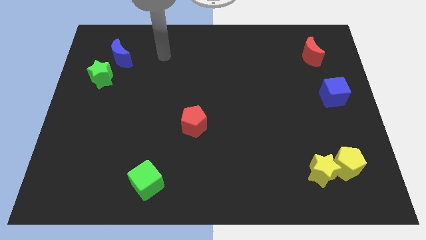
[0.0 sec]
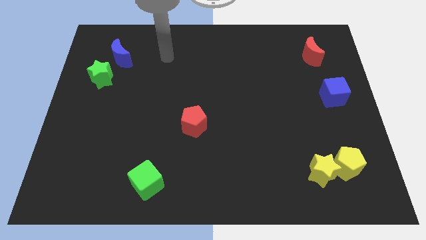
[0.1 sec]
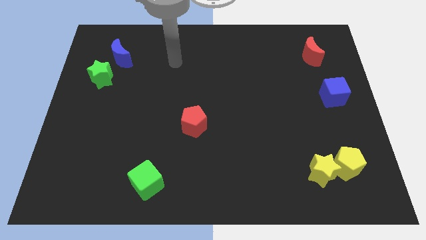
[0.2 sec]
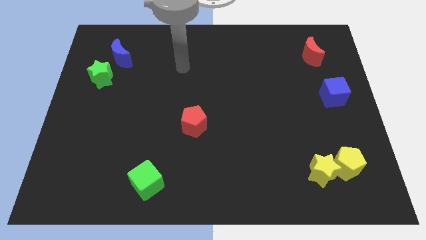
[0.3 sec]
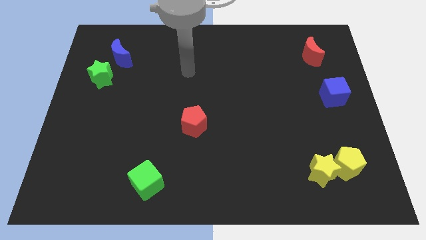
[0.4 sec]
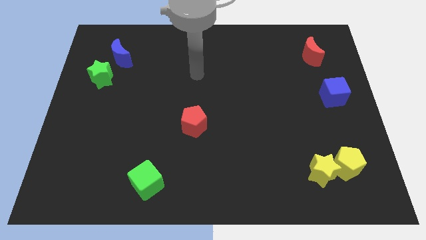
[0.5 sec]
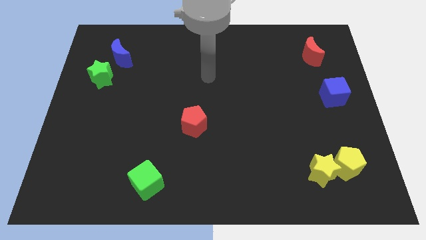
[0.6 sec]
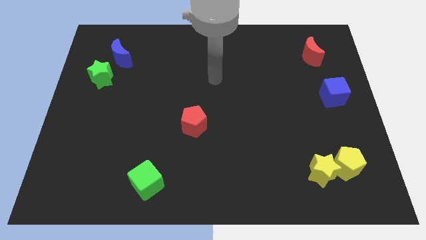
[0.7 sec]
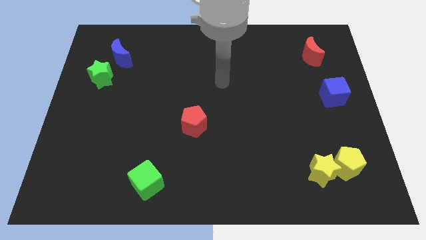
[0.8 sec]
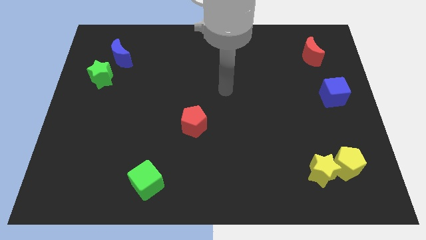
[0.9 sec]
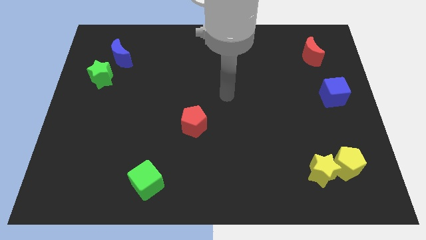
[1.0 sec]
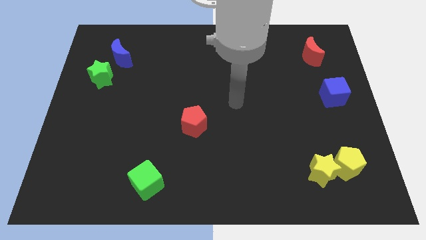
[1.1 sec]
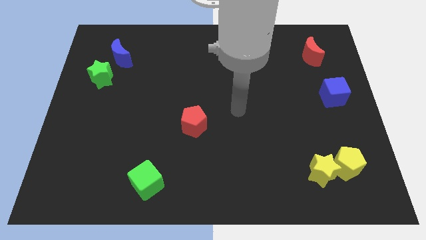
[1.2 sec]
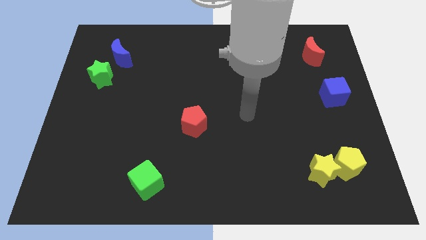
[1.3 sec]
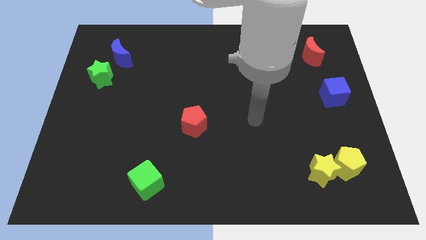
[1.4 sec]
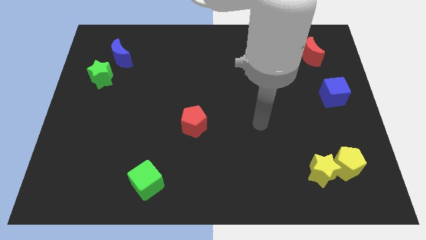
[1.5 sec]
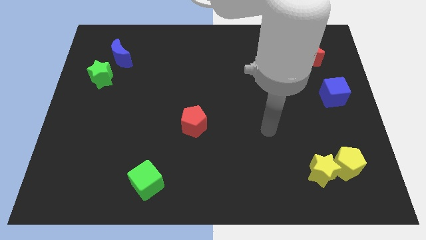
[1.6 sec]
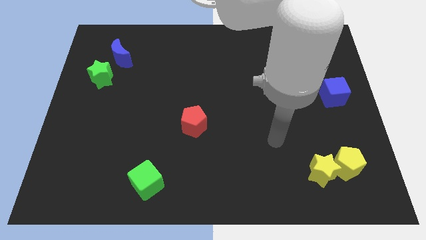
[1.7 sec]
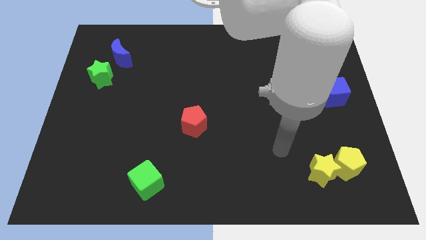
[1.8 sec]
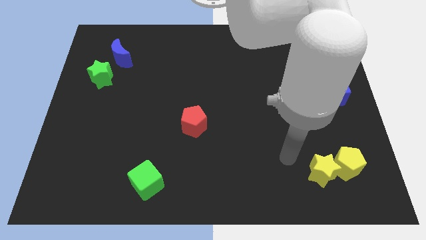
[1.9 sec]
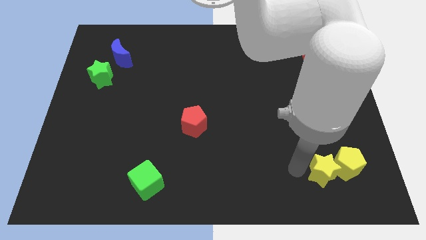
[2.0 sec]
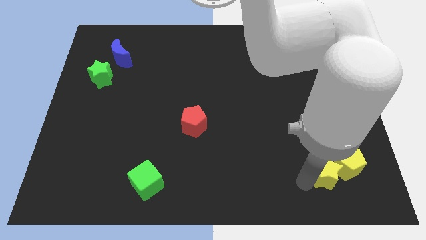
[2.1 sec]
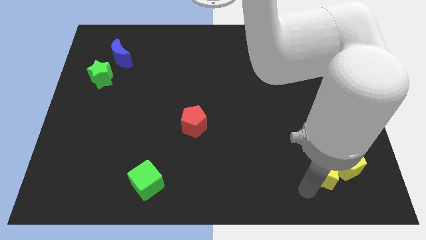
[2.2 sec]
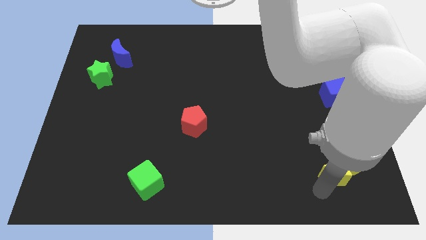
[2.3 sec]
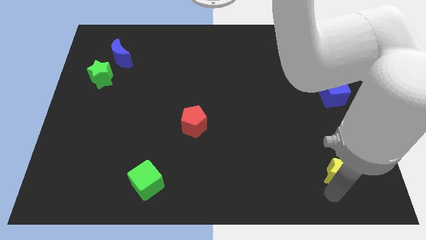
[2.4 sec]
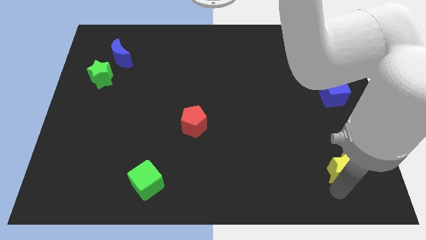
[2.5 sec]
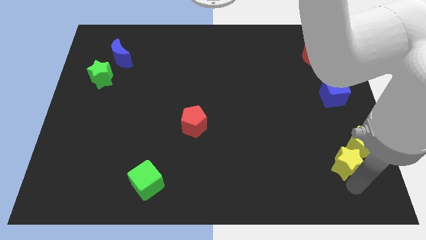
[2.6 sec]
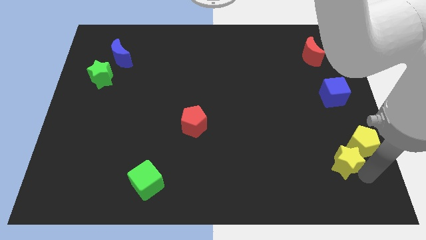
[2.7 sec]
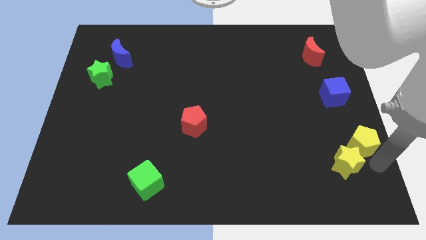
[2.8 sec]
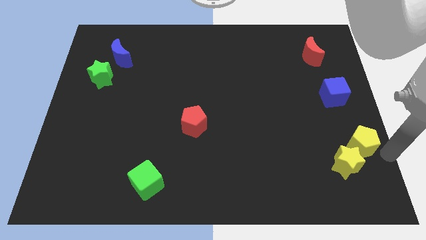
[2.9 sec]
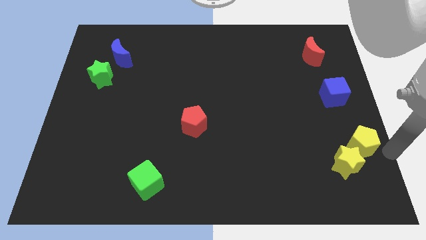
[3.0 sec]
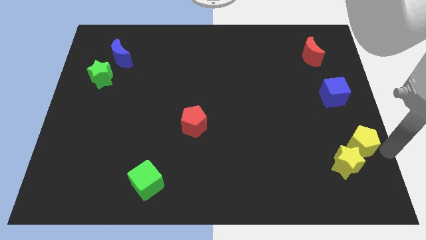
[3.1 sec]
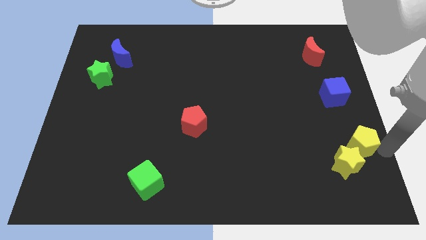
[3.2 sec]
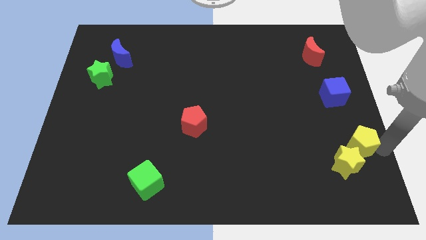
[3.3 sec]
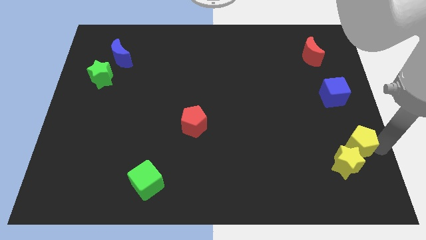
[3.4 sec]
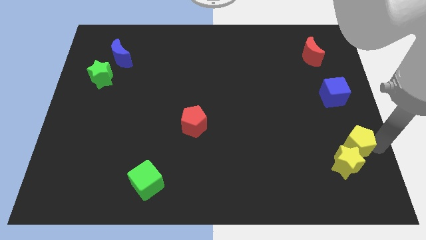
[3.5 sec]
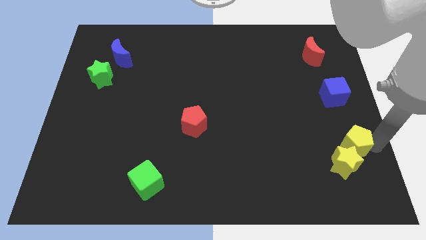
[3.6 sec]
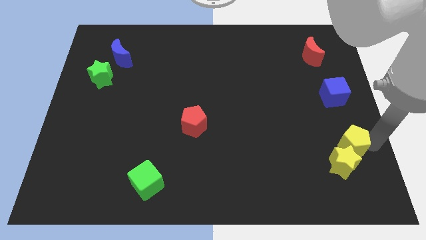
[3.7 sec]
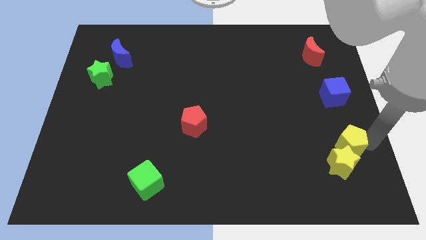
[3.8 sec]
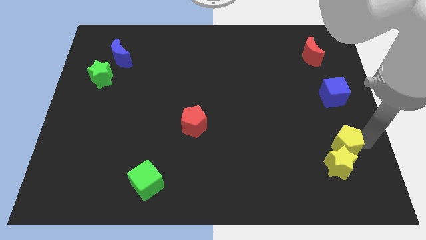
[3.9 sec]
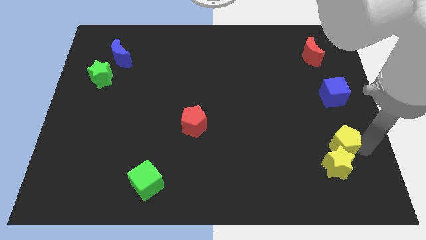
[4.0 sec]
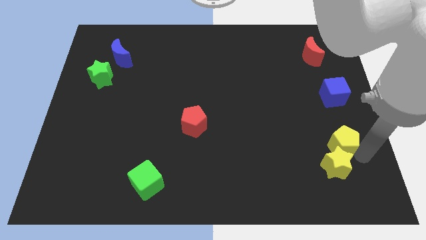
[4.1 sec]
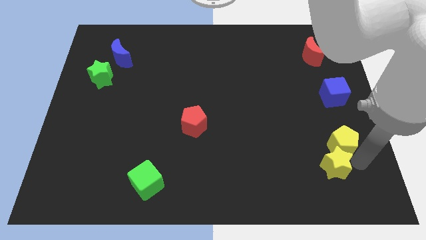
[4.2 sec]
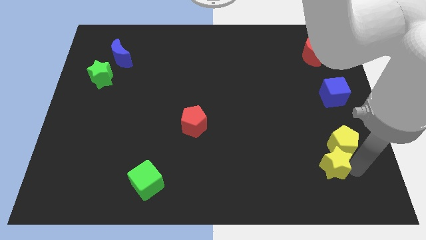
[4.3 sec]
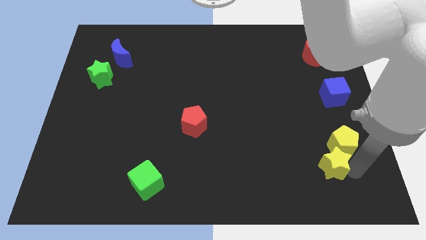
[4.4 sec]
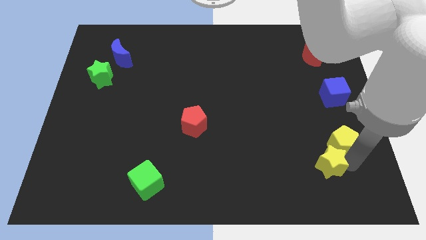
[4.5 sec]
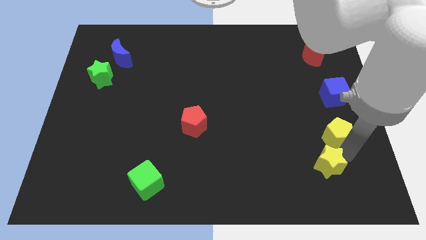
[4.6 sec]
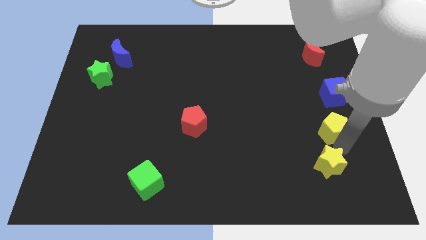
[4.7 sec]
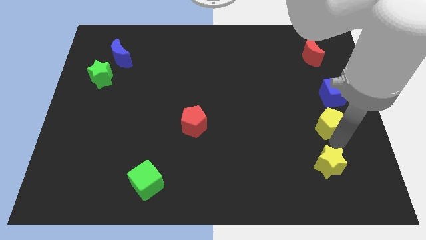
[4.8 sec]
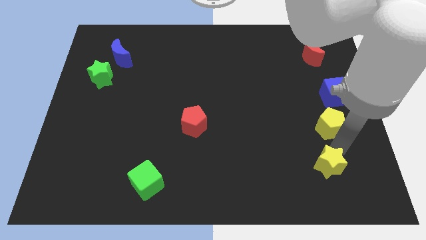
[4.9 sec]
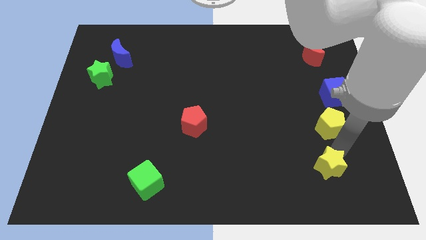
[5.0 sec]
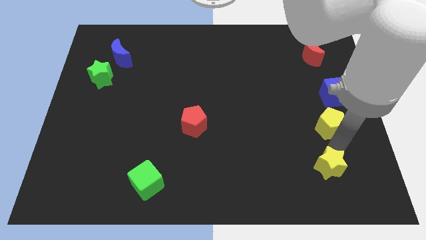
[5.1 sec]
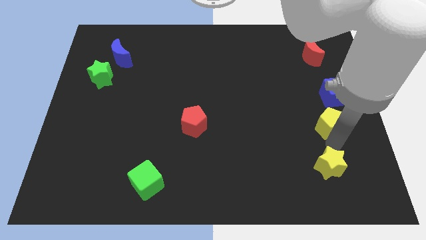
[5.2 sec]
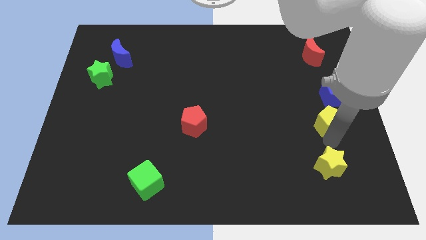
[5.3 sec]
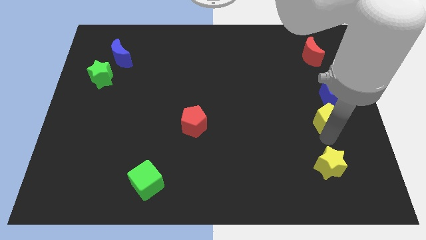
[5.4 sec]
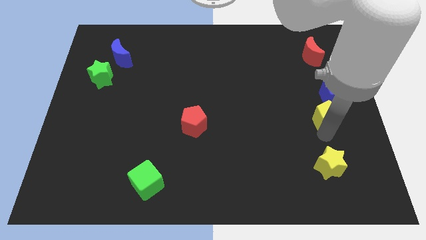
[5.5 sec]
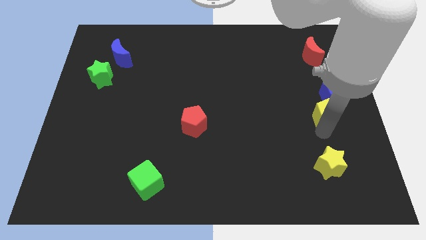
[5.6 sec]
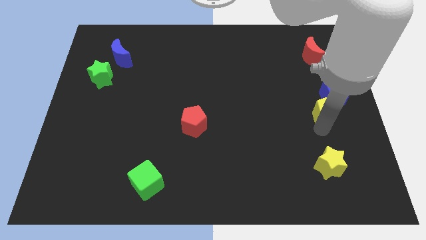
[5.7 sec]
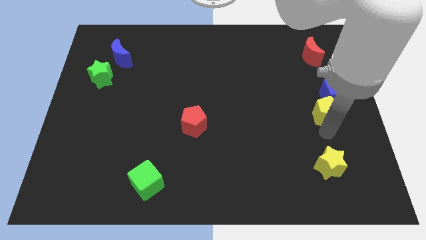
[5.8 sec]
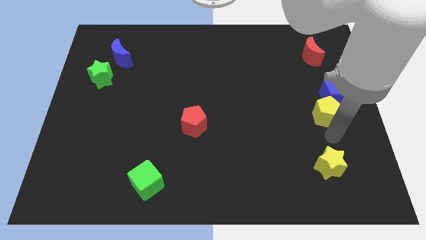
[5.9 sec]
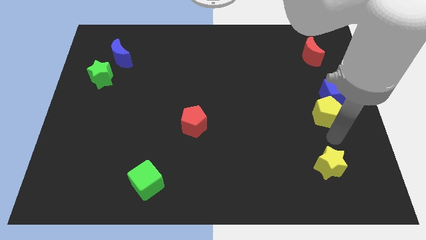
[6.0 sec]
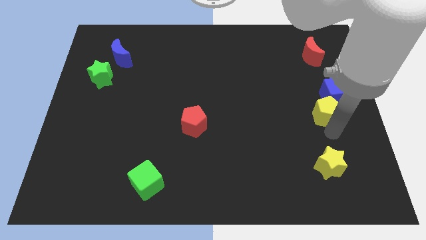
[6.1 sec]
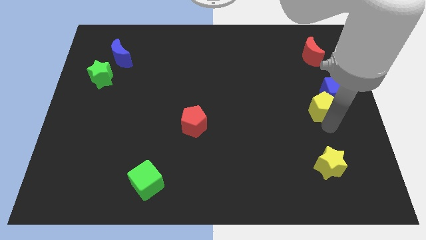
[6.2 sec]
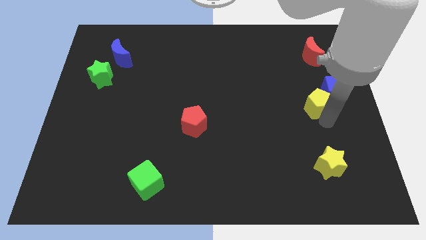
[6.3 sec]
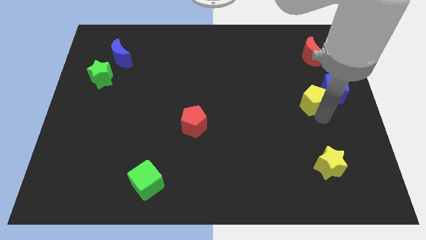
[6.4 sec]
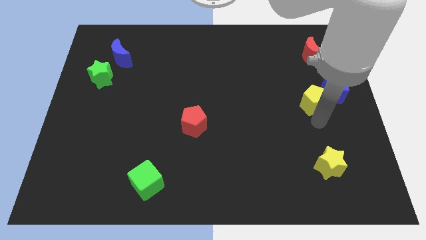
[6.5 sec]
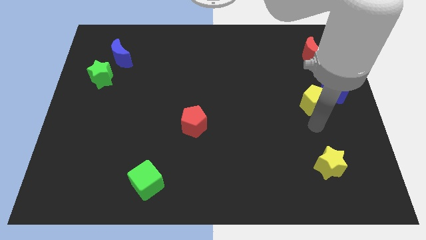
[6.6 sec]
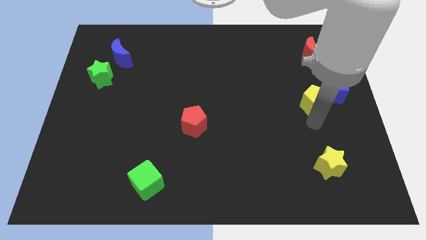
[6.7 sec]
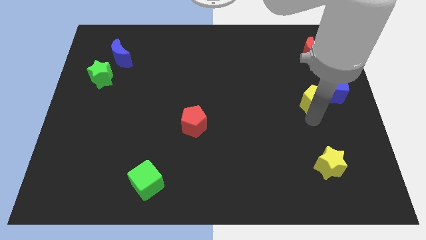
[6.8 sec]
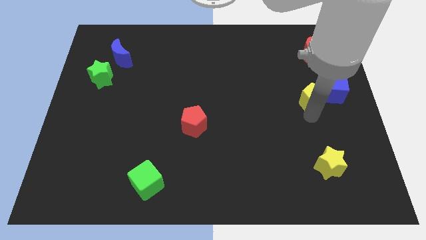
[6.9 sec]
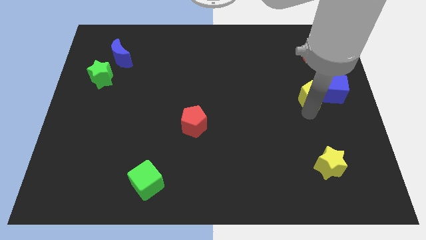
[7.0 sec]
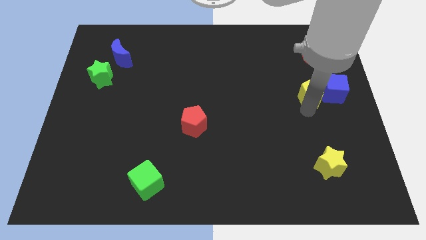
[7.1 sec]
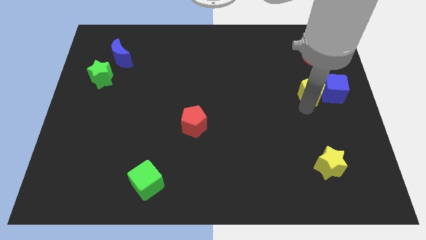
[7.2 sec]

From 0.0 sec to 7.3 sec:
slide the yellow pentagon to the top left of the blue cube
